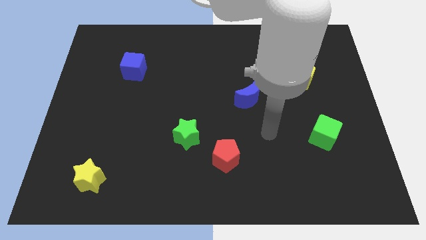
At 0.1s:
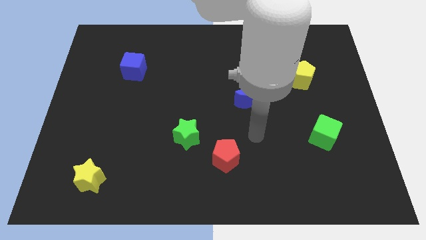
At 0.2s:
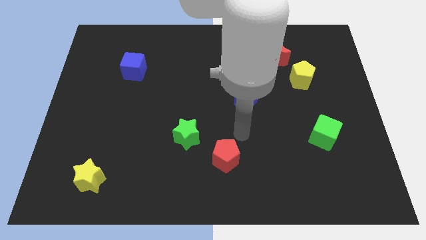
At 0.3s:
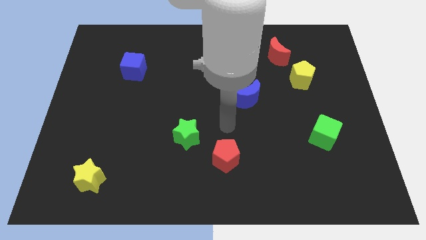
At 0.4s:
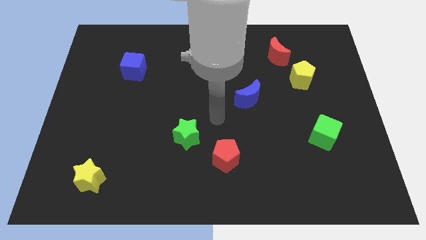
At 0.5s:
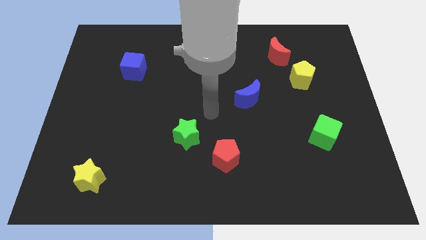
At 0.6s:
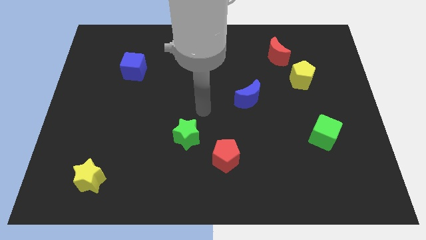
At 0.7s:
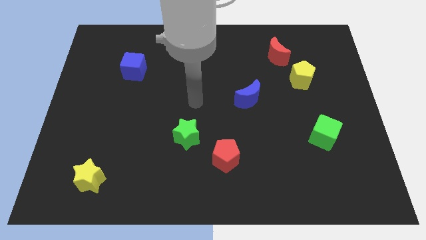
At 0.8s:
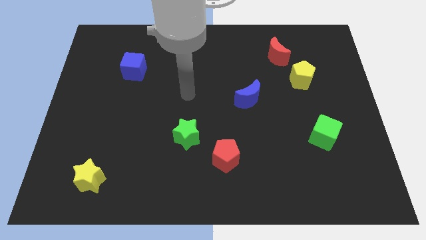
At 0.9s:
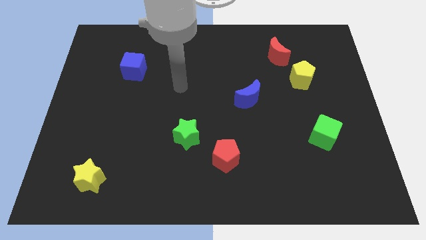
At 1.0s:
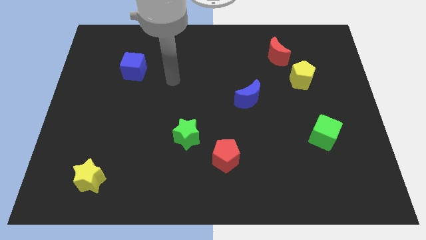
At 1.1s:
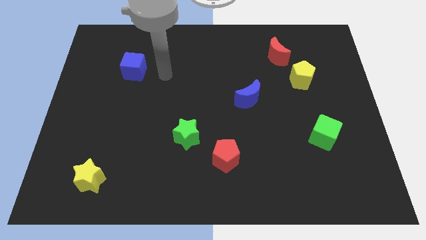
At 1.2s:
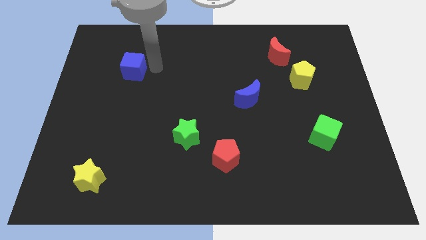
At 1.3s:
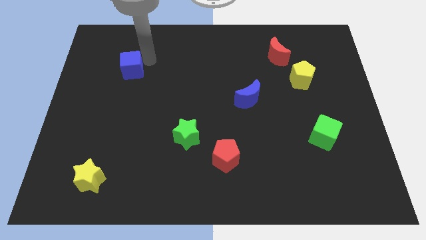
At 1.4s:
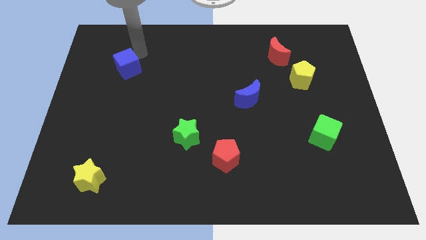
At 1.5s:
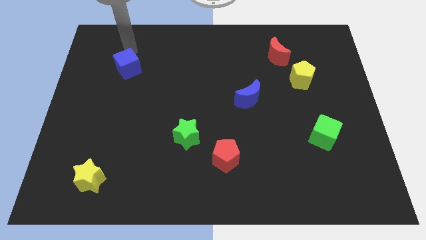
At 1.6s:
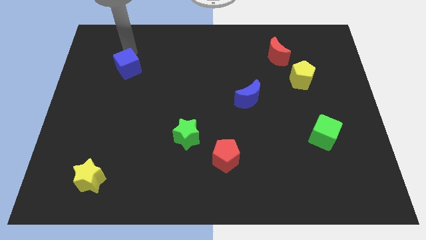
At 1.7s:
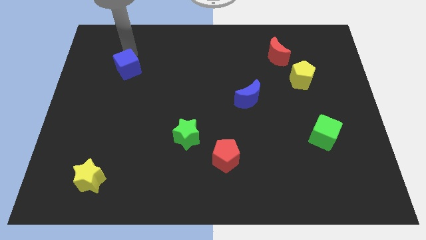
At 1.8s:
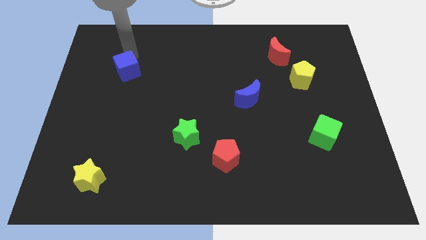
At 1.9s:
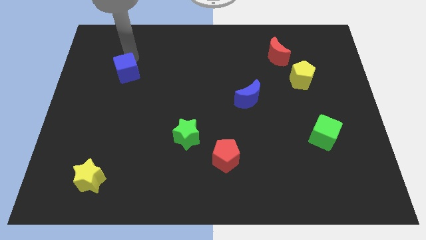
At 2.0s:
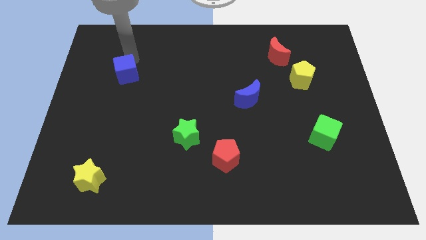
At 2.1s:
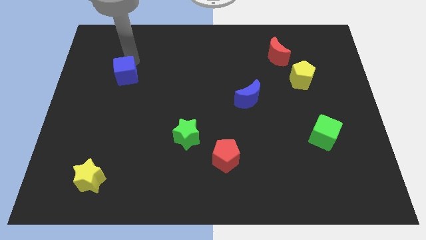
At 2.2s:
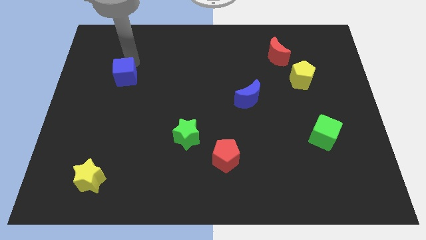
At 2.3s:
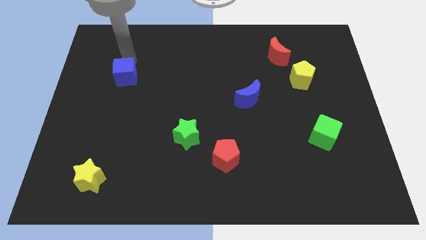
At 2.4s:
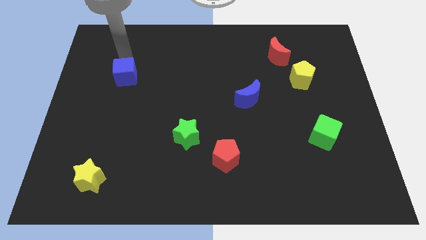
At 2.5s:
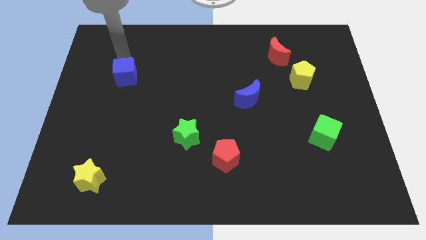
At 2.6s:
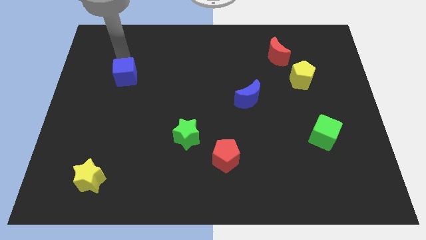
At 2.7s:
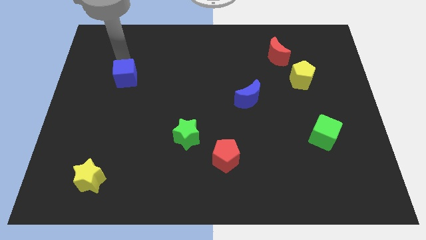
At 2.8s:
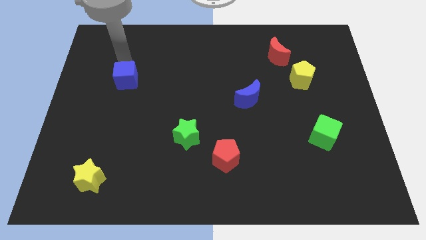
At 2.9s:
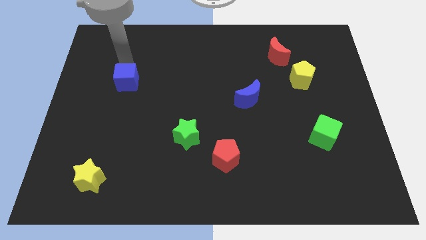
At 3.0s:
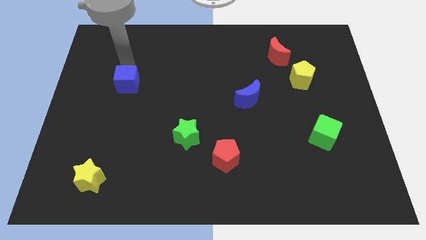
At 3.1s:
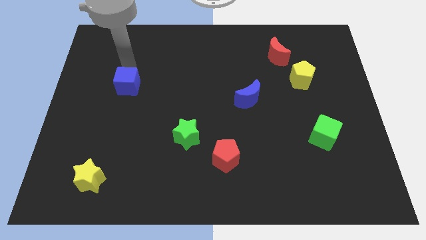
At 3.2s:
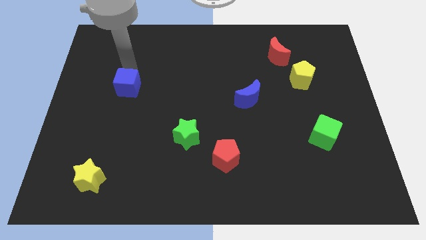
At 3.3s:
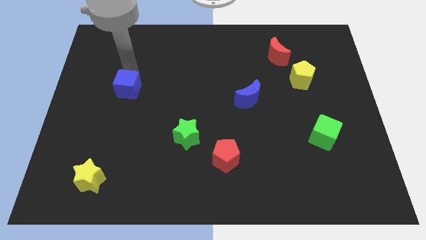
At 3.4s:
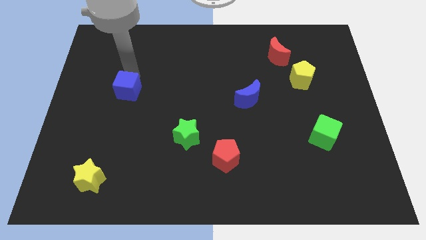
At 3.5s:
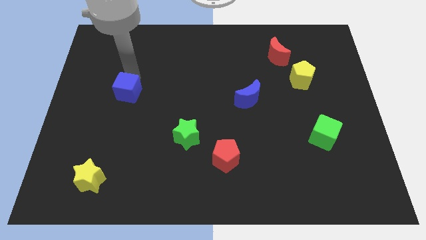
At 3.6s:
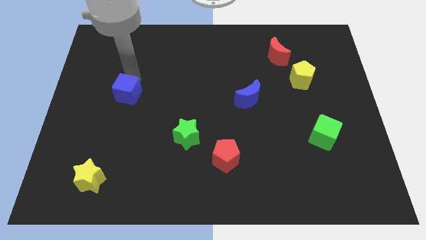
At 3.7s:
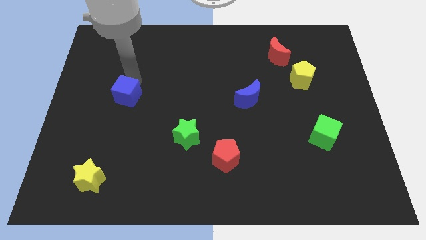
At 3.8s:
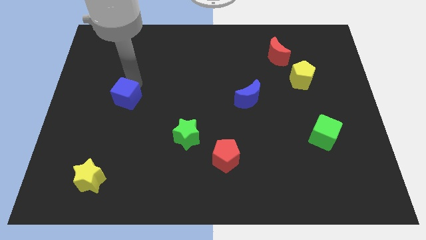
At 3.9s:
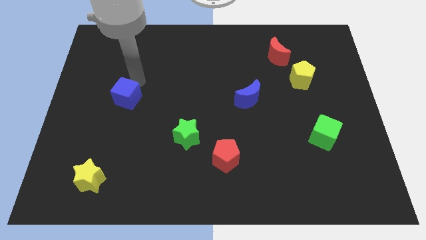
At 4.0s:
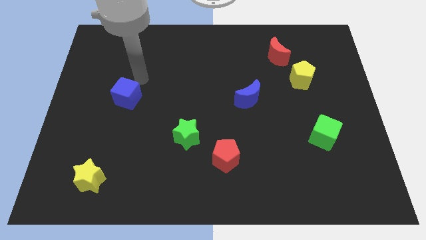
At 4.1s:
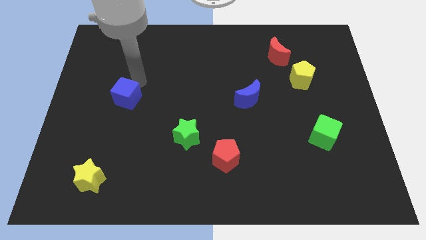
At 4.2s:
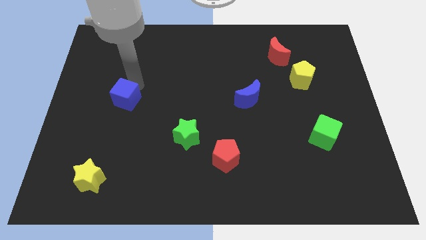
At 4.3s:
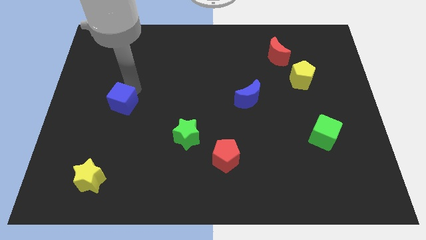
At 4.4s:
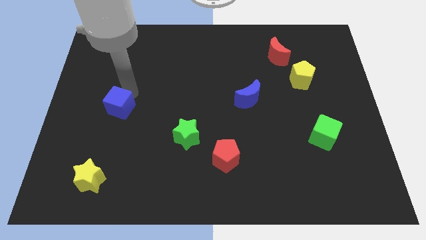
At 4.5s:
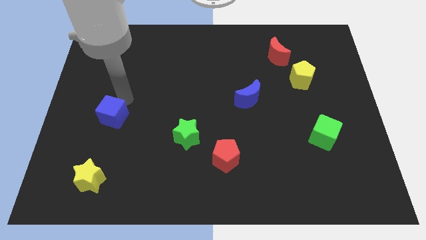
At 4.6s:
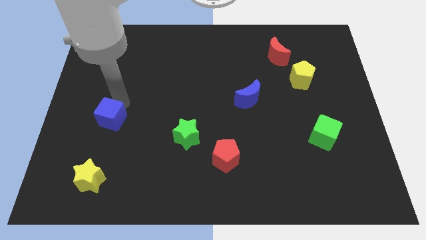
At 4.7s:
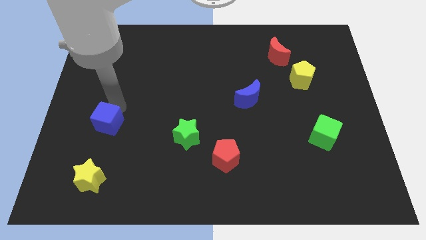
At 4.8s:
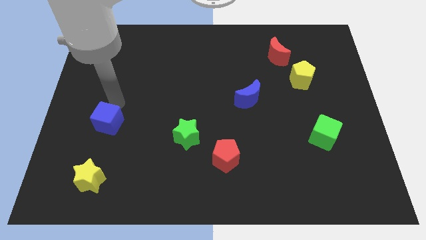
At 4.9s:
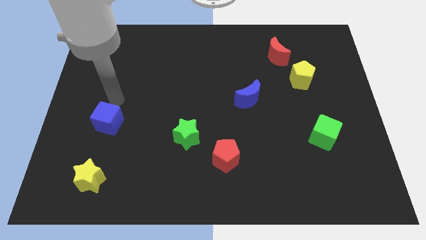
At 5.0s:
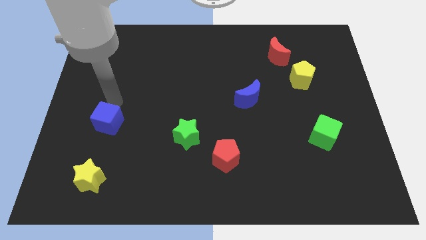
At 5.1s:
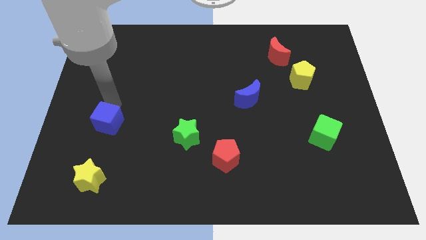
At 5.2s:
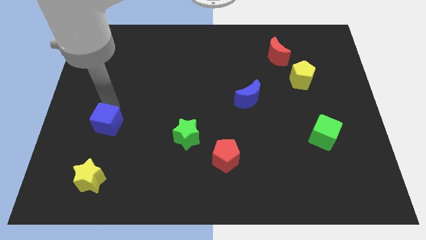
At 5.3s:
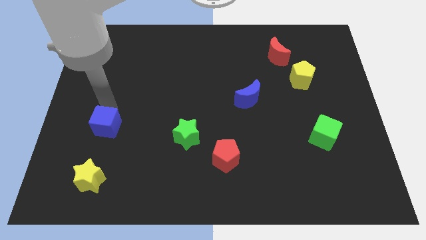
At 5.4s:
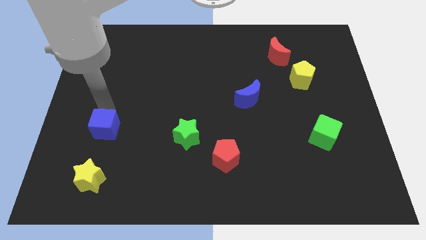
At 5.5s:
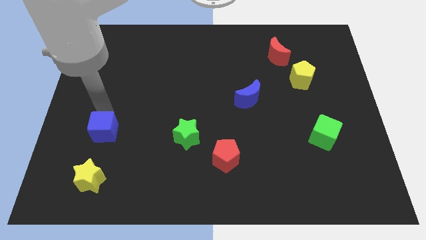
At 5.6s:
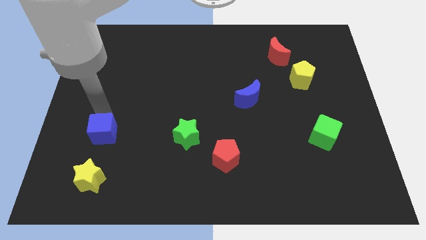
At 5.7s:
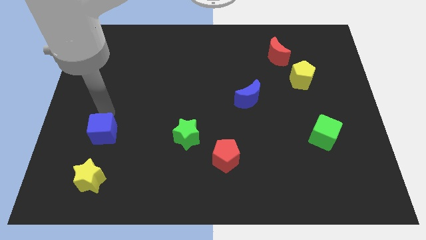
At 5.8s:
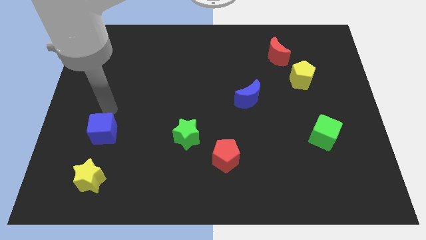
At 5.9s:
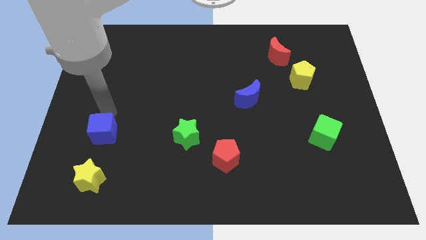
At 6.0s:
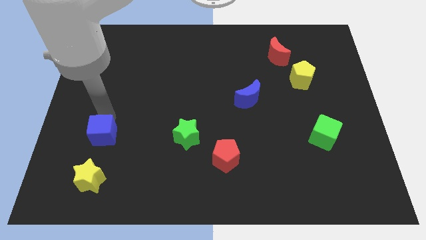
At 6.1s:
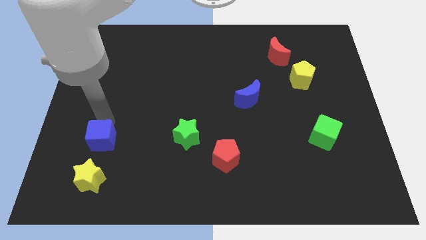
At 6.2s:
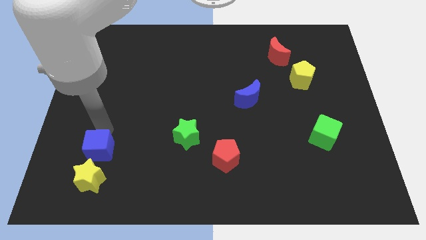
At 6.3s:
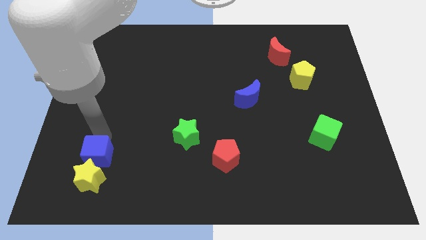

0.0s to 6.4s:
slide the blue cube close to the yellow star
